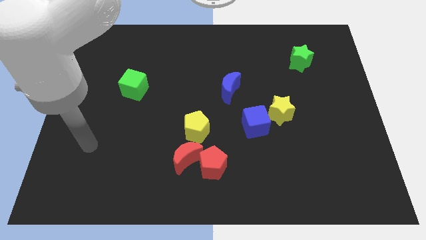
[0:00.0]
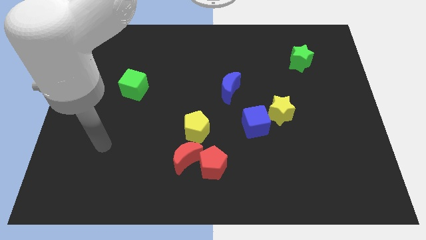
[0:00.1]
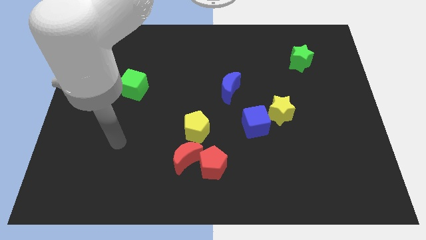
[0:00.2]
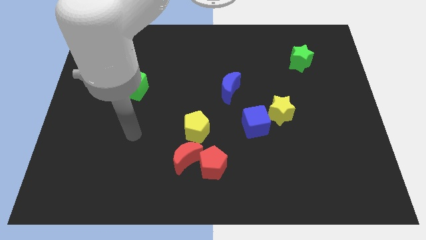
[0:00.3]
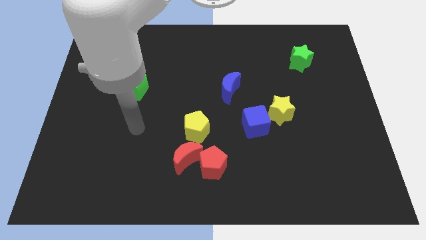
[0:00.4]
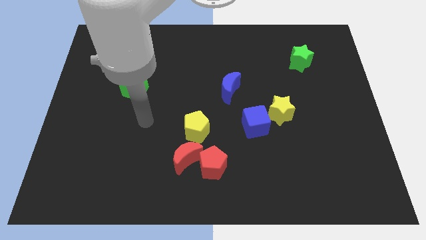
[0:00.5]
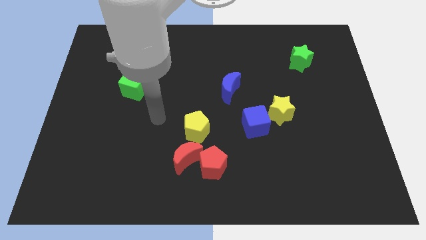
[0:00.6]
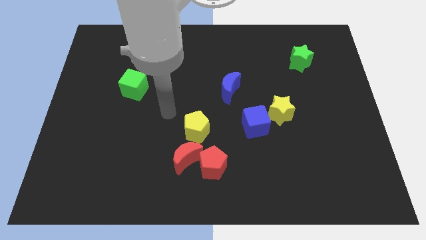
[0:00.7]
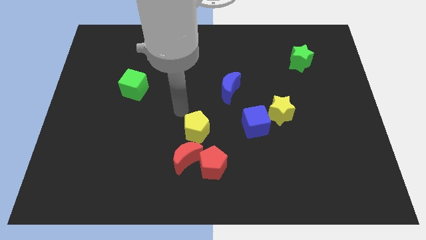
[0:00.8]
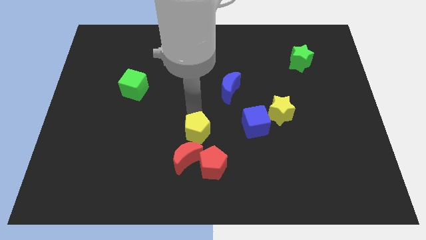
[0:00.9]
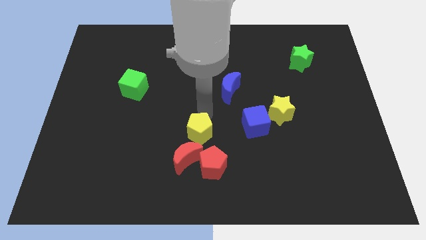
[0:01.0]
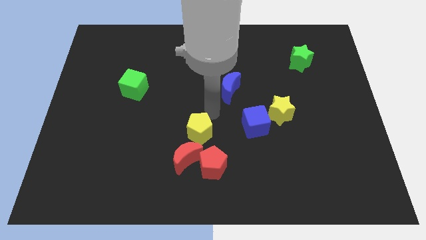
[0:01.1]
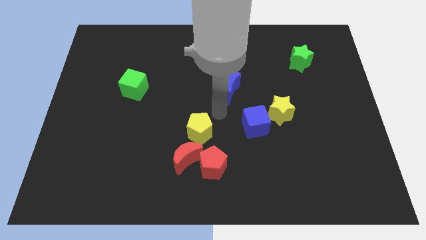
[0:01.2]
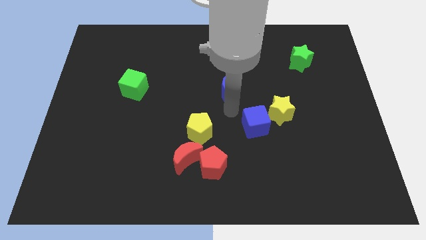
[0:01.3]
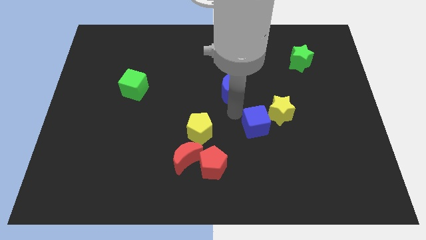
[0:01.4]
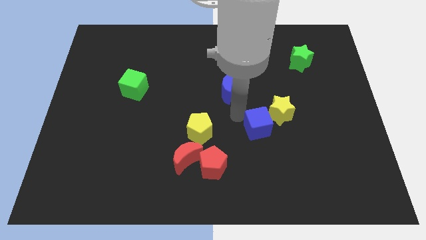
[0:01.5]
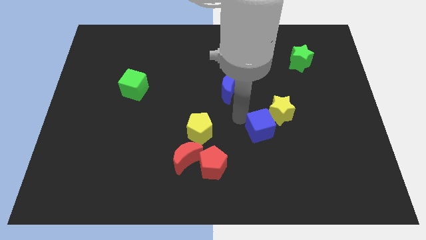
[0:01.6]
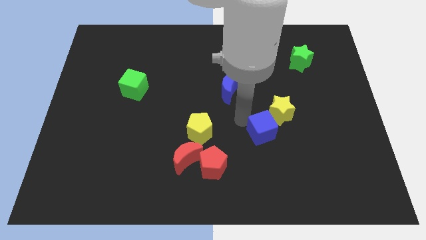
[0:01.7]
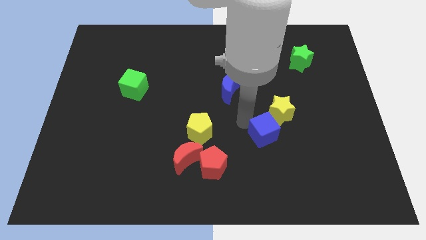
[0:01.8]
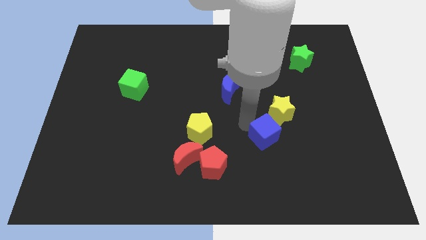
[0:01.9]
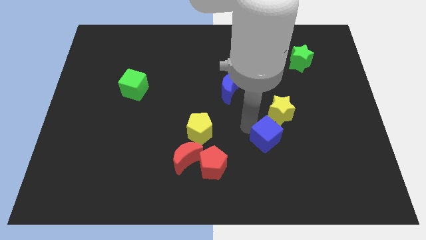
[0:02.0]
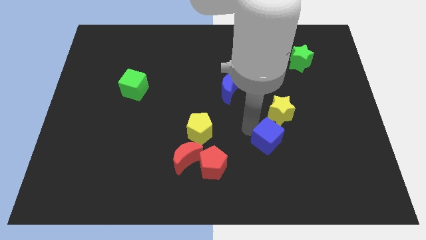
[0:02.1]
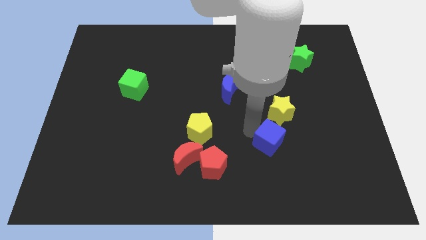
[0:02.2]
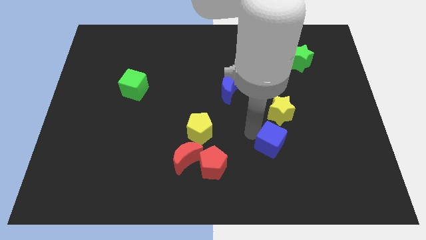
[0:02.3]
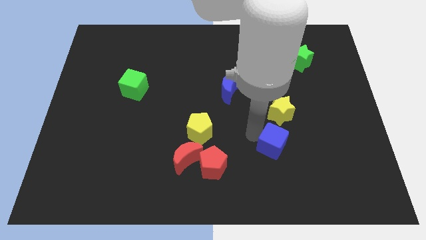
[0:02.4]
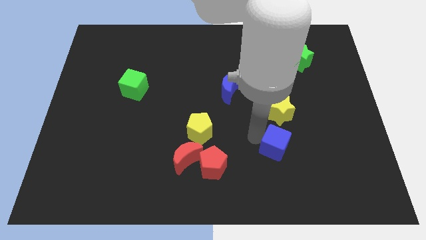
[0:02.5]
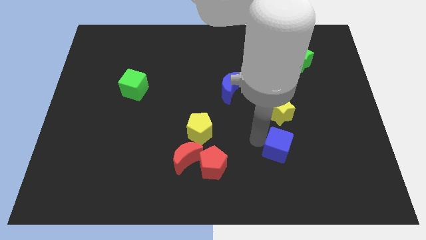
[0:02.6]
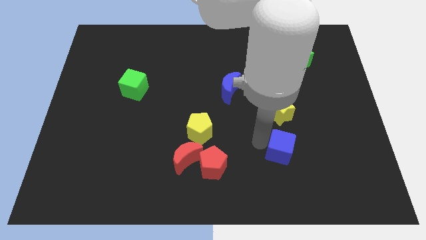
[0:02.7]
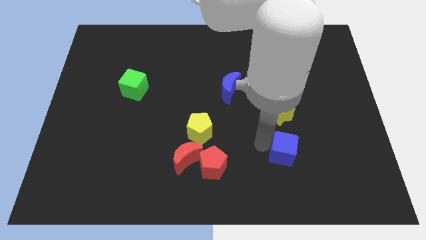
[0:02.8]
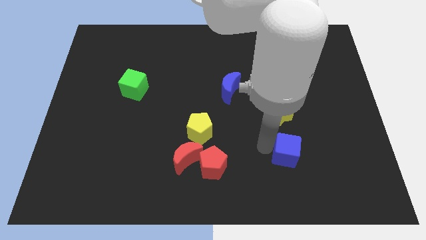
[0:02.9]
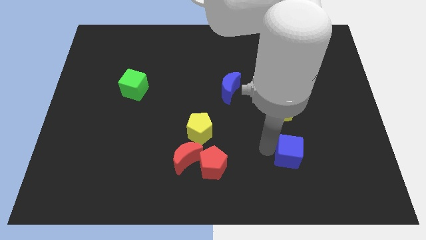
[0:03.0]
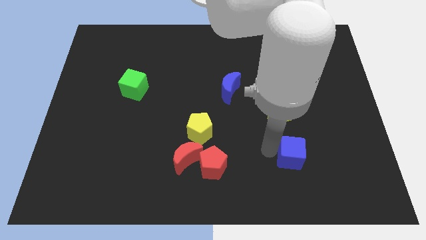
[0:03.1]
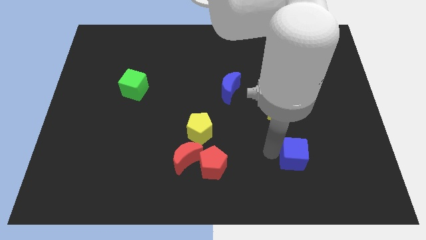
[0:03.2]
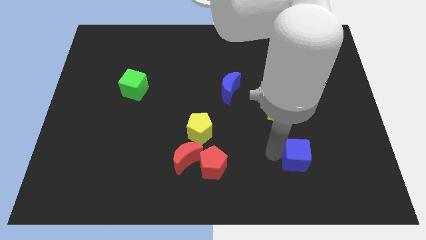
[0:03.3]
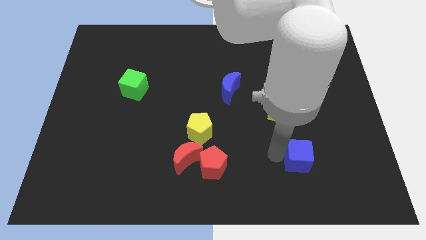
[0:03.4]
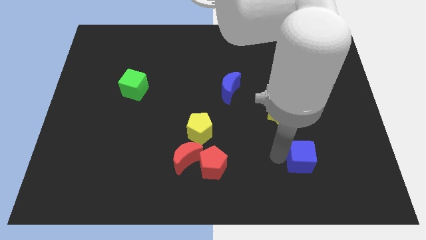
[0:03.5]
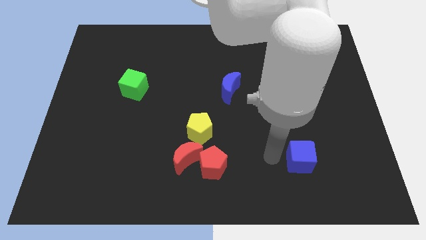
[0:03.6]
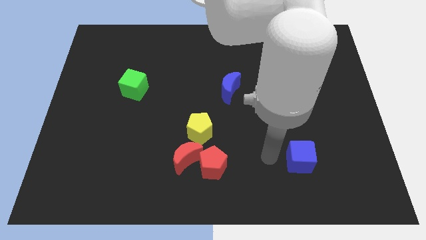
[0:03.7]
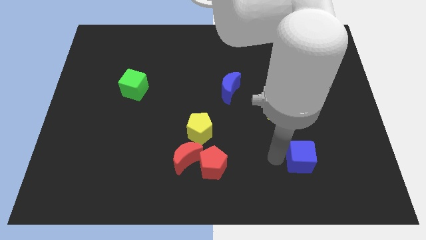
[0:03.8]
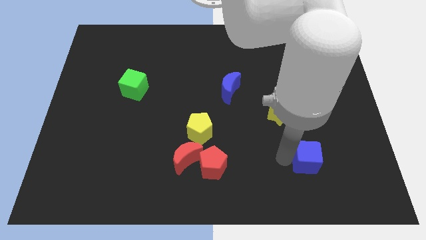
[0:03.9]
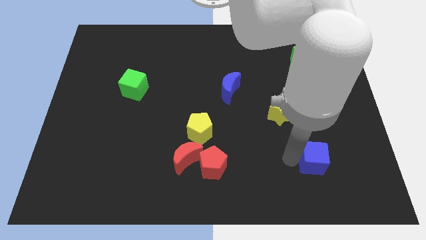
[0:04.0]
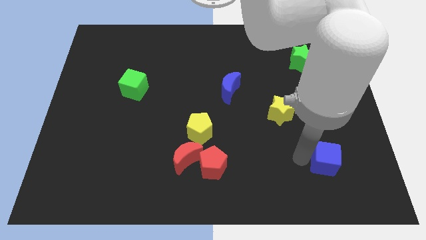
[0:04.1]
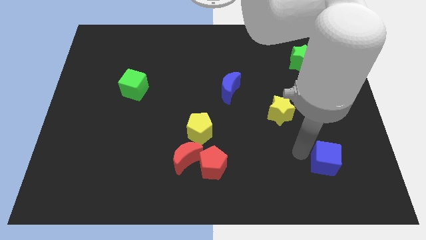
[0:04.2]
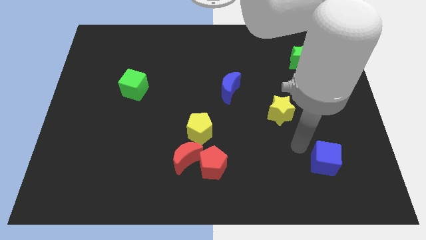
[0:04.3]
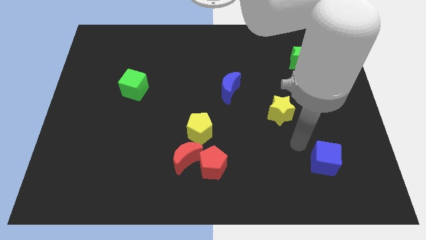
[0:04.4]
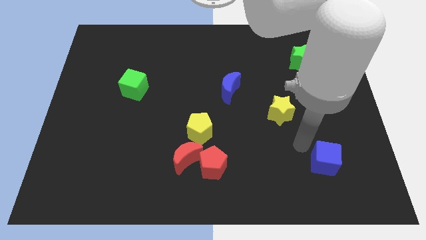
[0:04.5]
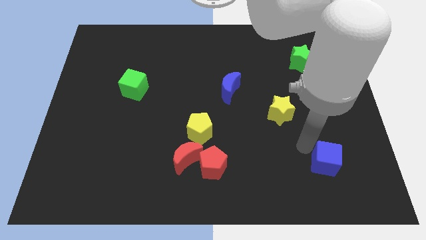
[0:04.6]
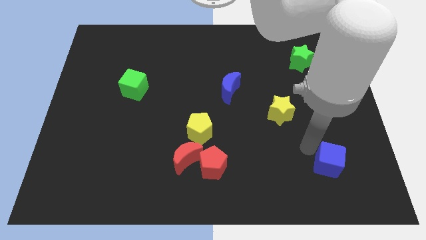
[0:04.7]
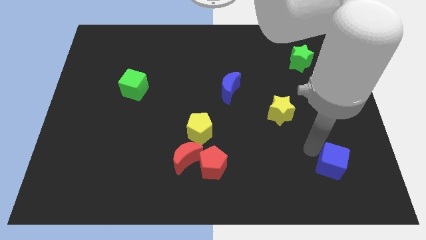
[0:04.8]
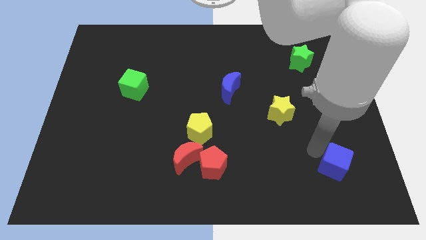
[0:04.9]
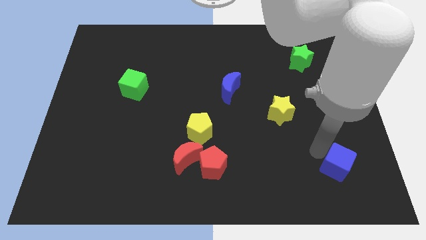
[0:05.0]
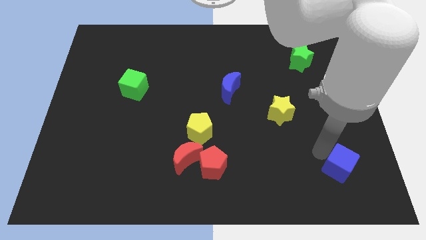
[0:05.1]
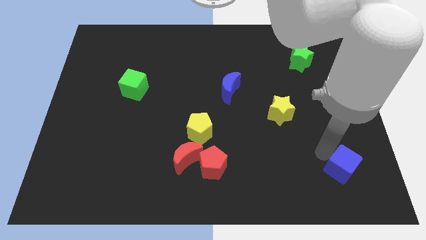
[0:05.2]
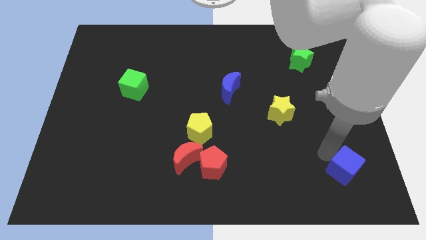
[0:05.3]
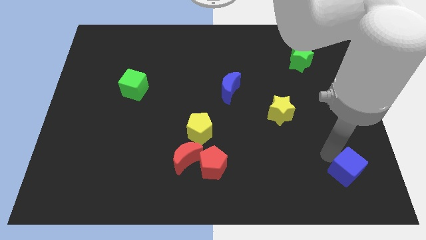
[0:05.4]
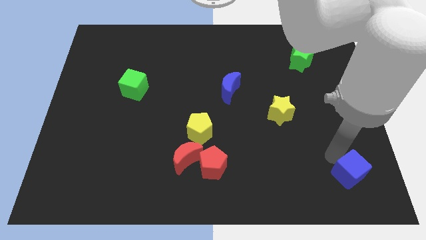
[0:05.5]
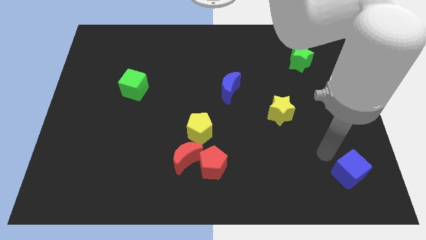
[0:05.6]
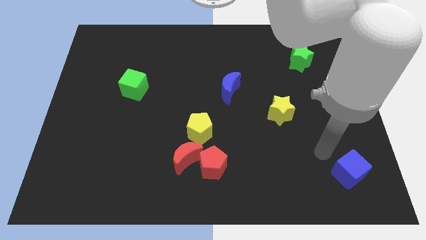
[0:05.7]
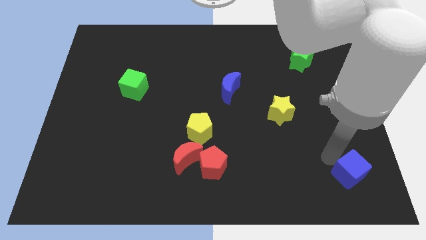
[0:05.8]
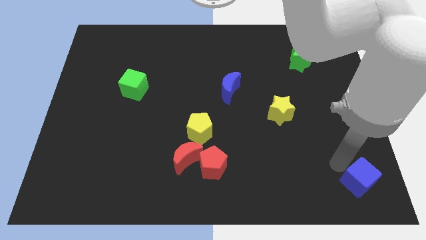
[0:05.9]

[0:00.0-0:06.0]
move the blue cube to the lower right corner
